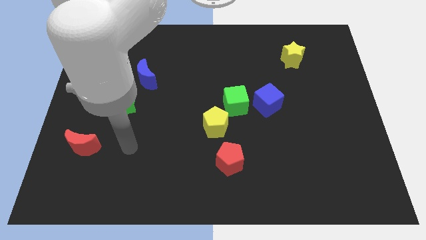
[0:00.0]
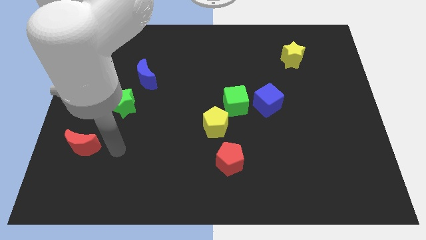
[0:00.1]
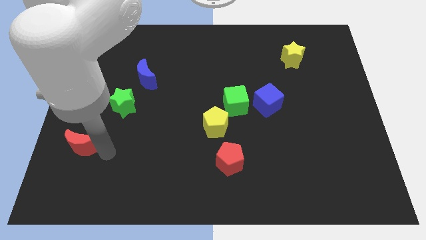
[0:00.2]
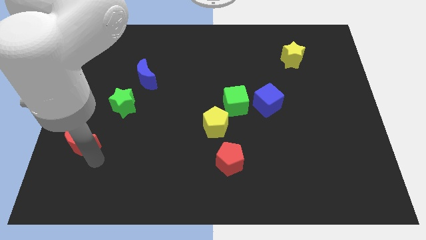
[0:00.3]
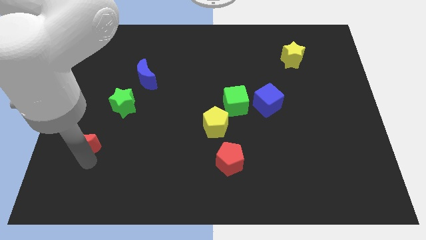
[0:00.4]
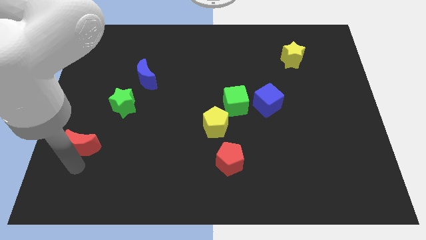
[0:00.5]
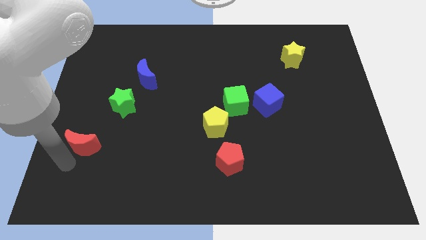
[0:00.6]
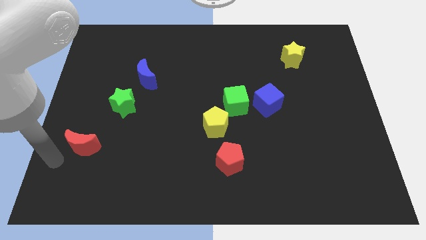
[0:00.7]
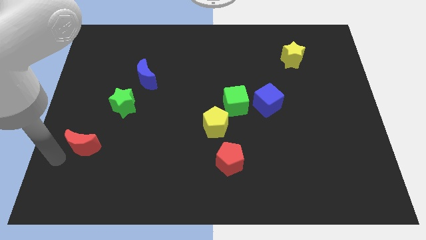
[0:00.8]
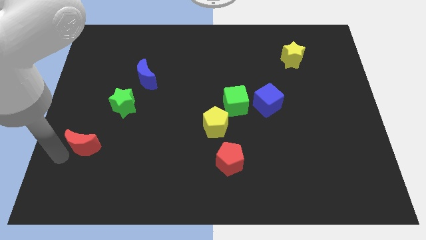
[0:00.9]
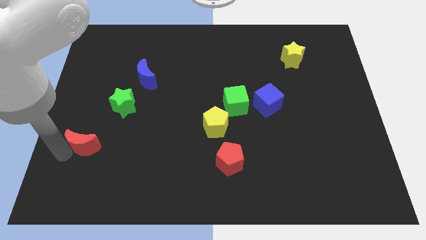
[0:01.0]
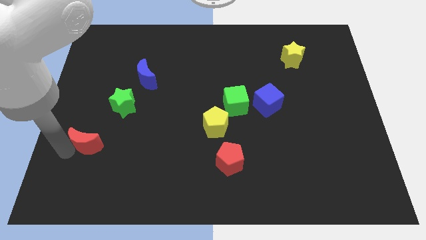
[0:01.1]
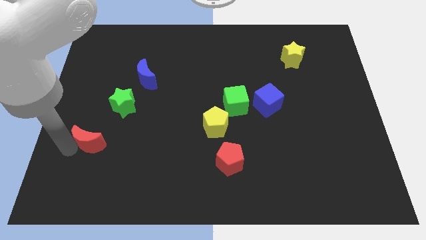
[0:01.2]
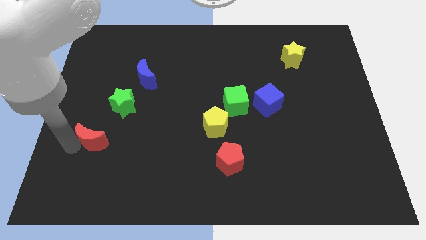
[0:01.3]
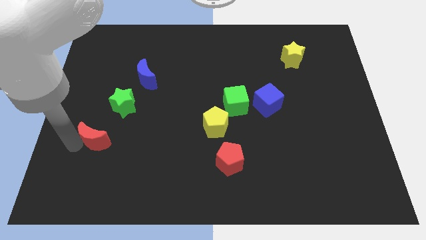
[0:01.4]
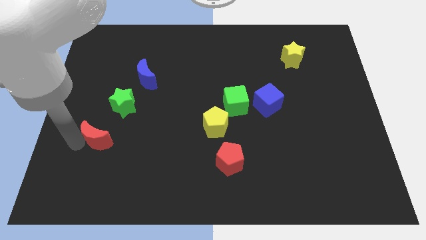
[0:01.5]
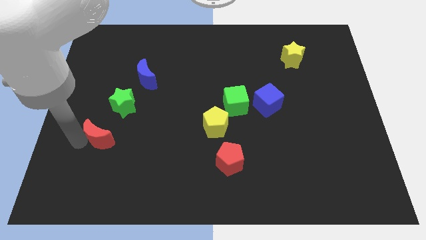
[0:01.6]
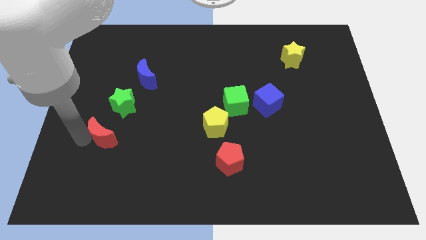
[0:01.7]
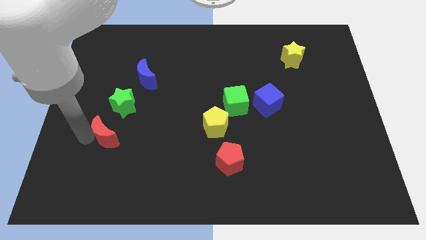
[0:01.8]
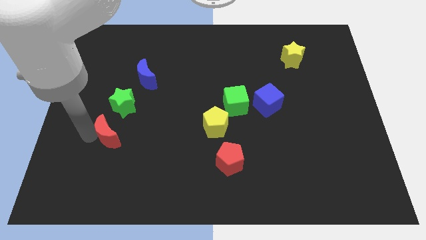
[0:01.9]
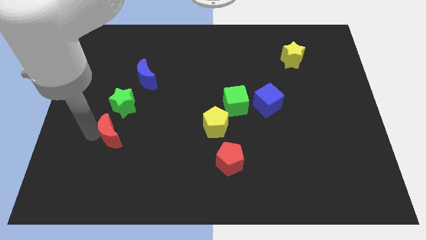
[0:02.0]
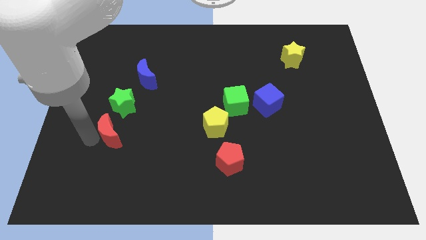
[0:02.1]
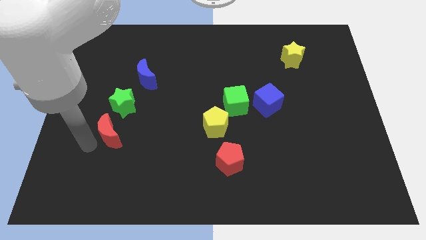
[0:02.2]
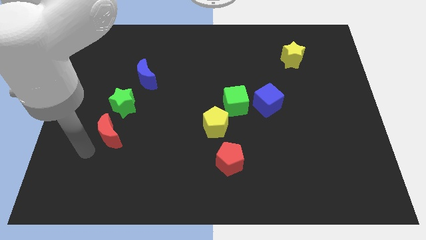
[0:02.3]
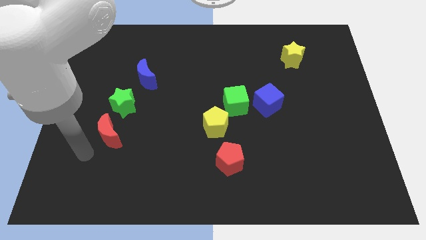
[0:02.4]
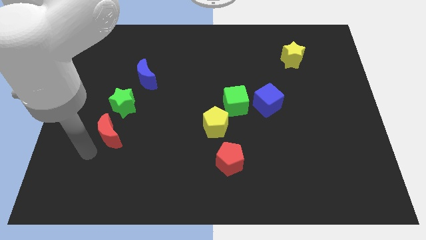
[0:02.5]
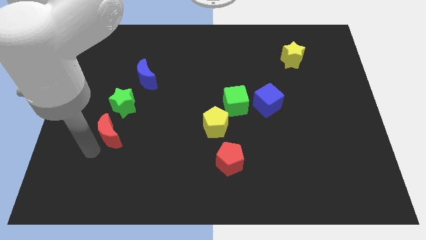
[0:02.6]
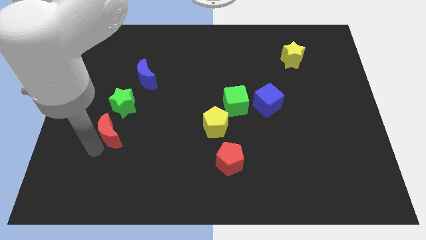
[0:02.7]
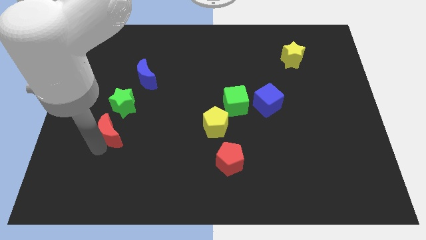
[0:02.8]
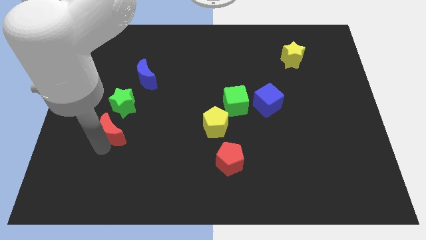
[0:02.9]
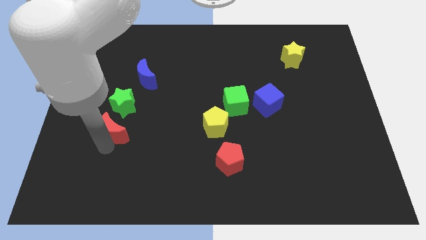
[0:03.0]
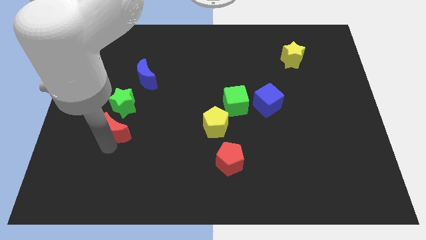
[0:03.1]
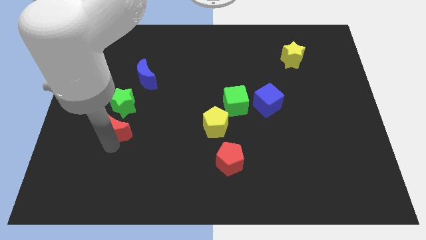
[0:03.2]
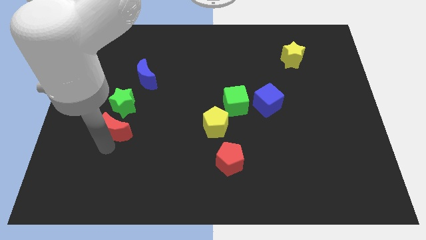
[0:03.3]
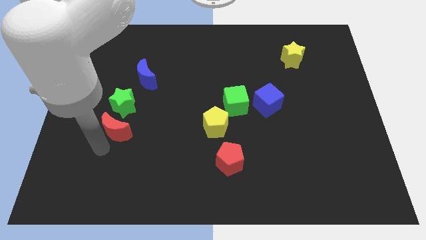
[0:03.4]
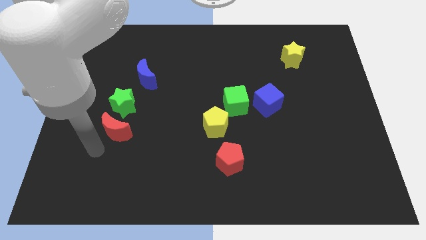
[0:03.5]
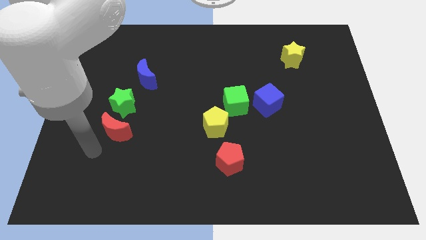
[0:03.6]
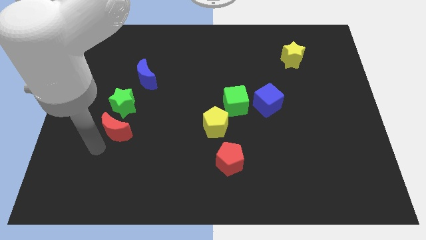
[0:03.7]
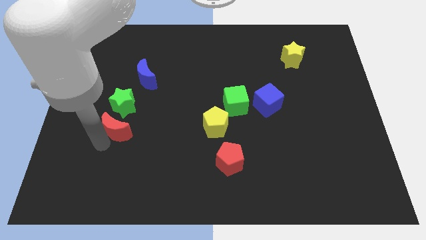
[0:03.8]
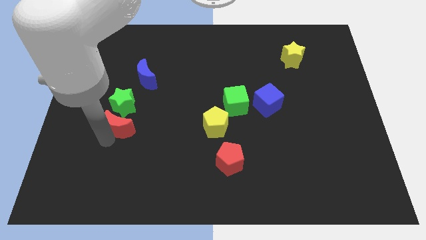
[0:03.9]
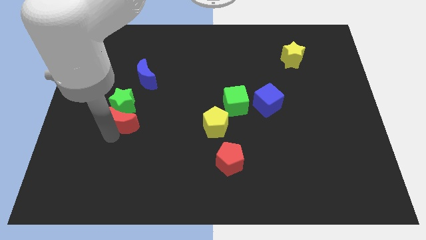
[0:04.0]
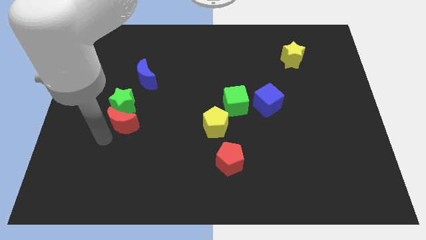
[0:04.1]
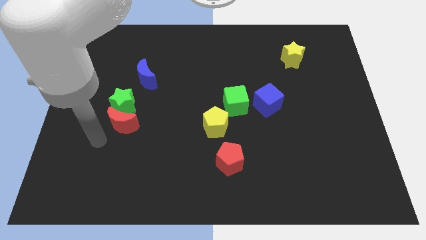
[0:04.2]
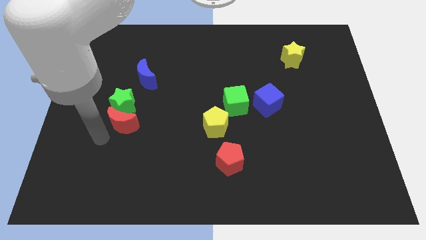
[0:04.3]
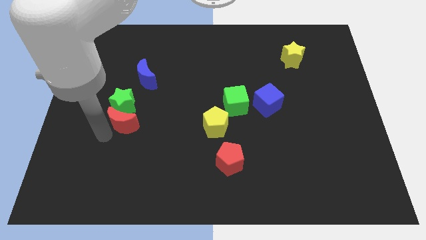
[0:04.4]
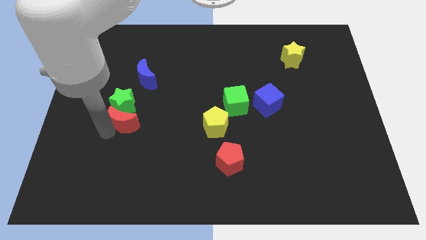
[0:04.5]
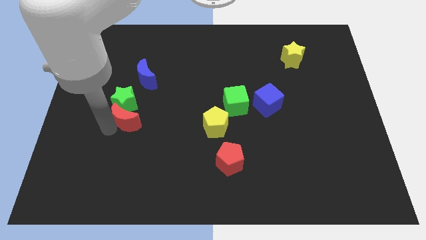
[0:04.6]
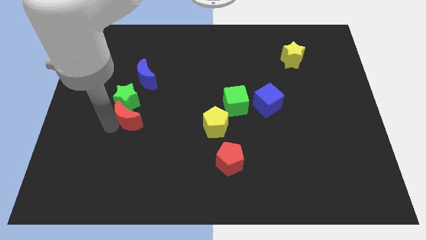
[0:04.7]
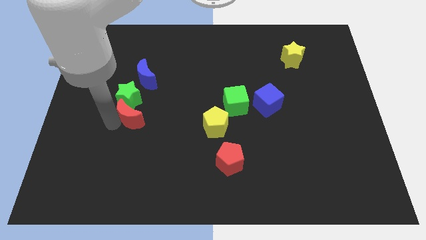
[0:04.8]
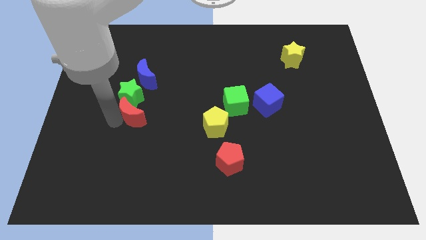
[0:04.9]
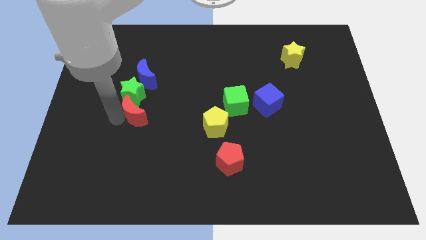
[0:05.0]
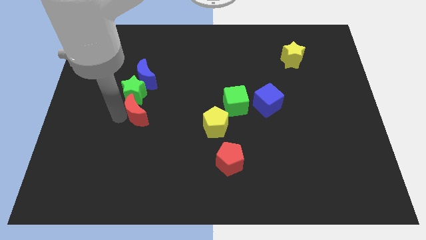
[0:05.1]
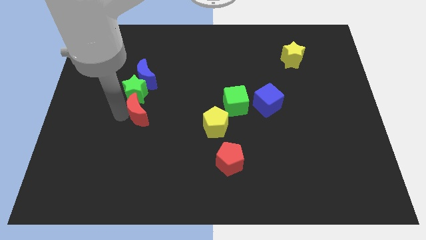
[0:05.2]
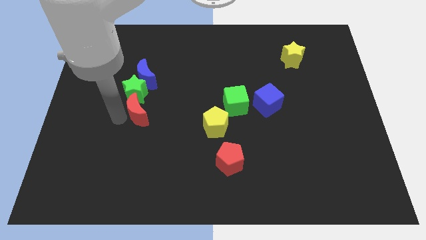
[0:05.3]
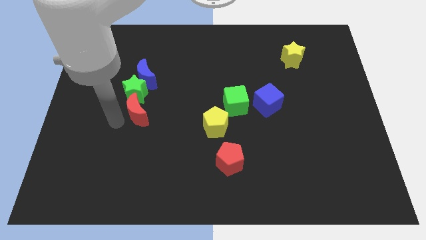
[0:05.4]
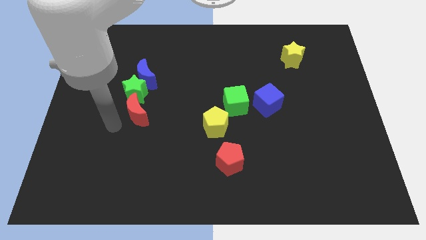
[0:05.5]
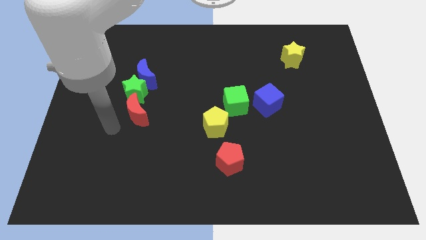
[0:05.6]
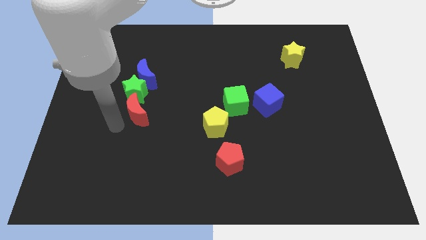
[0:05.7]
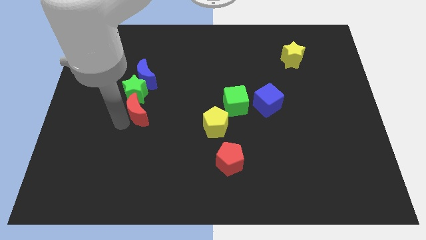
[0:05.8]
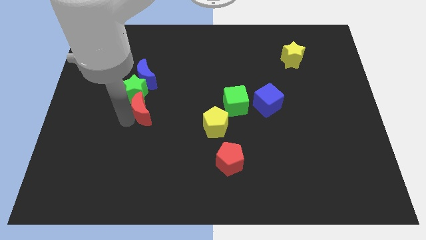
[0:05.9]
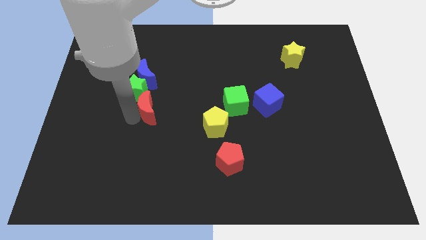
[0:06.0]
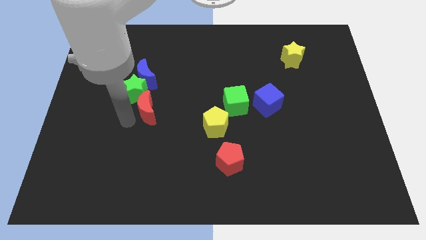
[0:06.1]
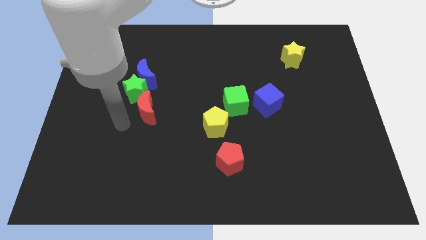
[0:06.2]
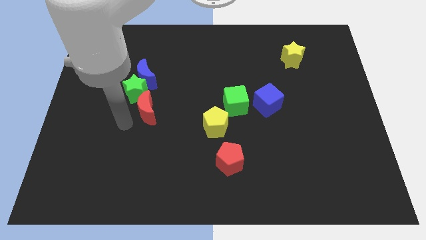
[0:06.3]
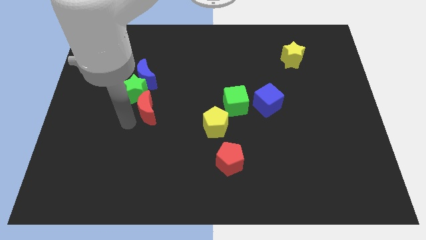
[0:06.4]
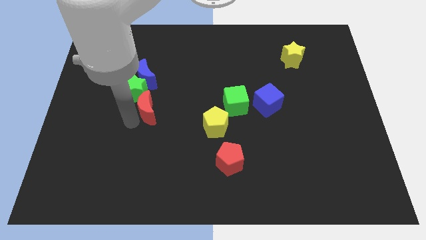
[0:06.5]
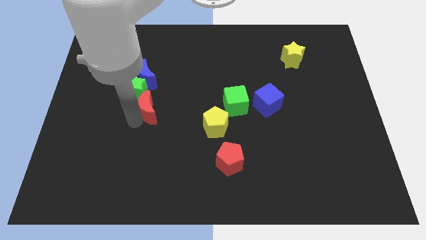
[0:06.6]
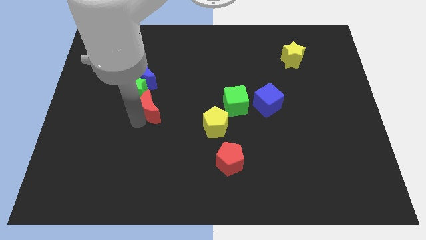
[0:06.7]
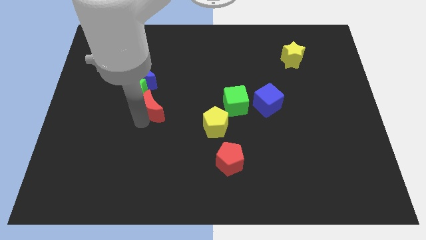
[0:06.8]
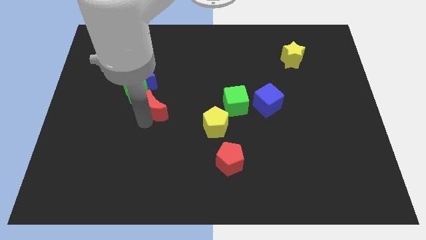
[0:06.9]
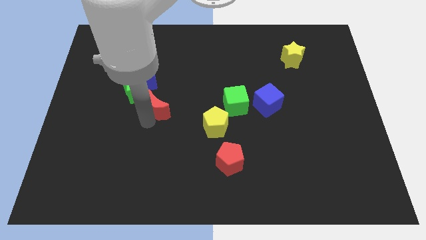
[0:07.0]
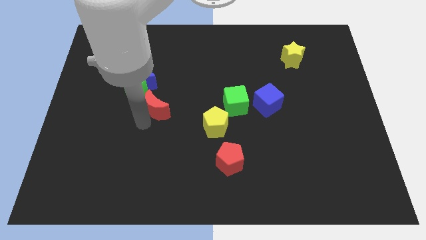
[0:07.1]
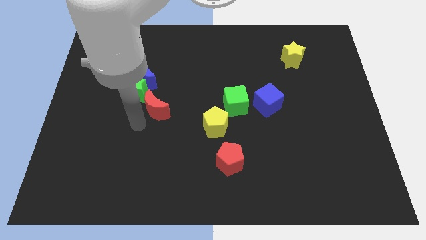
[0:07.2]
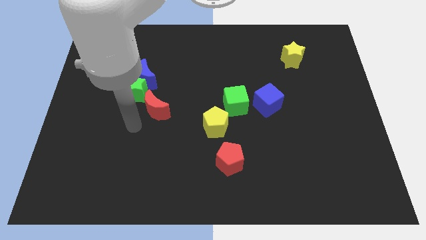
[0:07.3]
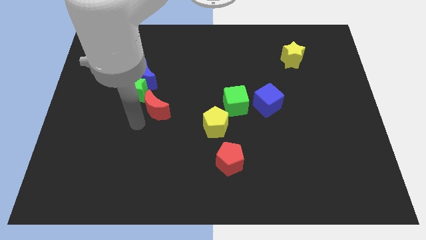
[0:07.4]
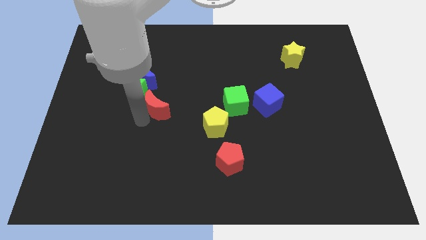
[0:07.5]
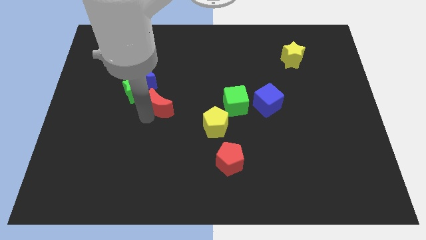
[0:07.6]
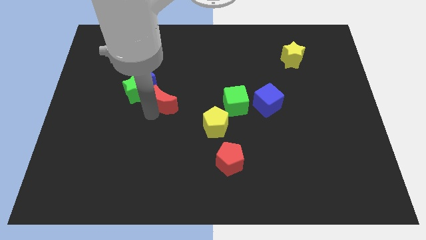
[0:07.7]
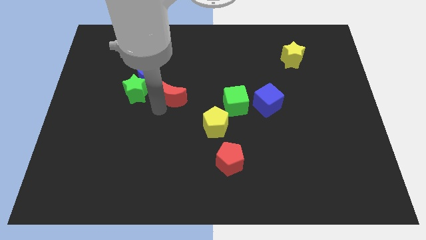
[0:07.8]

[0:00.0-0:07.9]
move the red moon upwards and to the right
